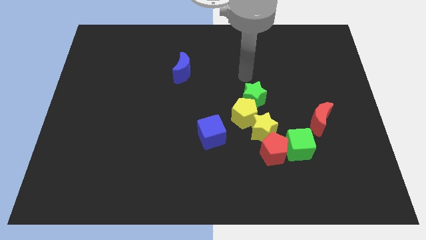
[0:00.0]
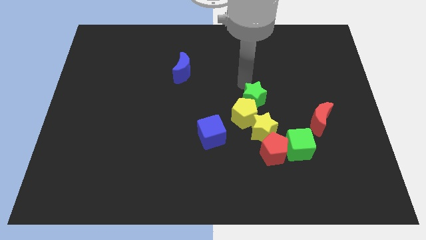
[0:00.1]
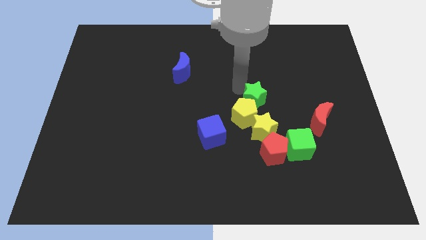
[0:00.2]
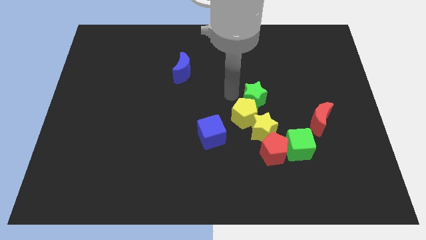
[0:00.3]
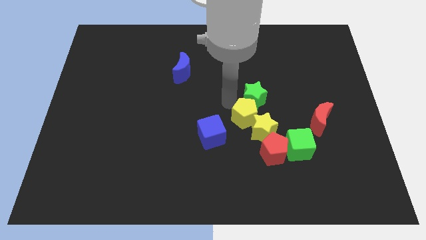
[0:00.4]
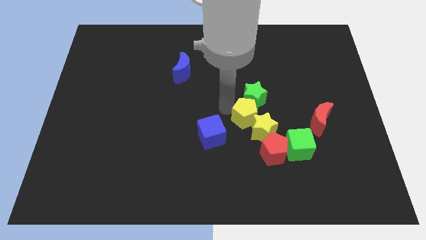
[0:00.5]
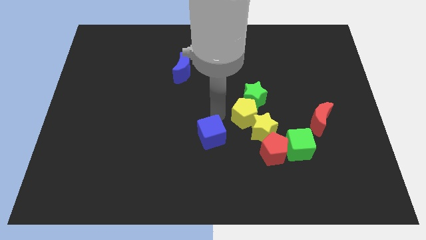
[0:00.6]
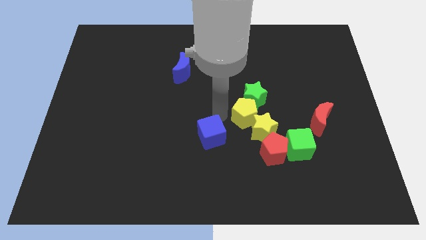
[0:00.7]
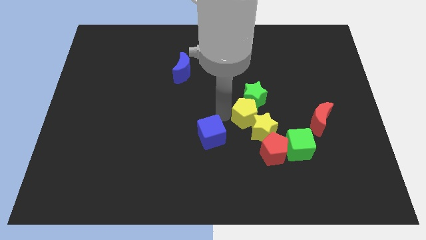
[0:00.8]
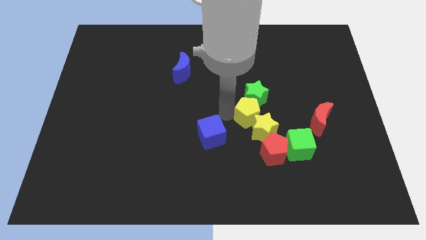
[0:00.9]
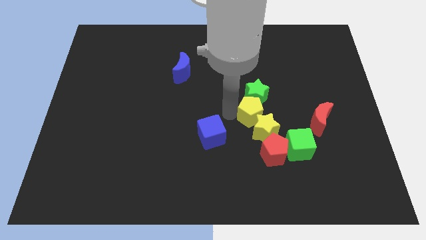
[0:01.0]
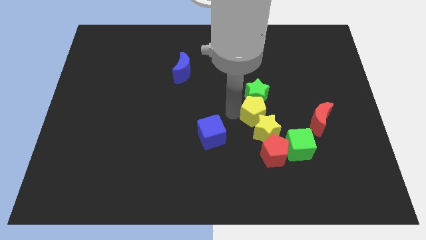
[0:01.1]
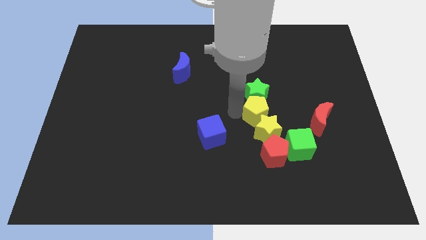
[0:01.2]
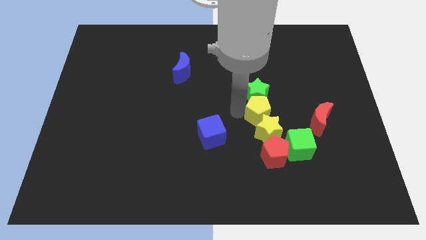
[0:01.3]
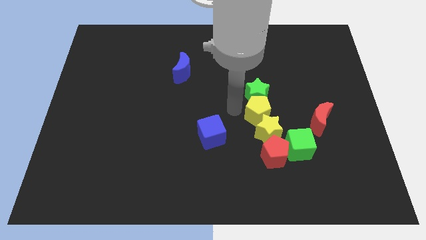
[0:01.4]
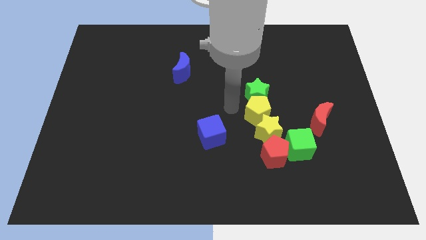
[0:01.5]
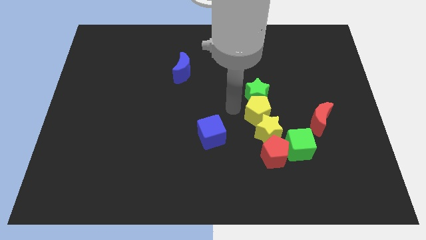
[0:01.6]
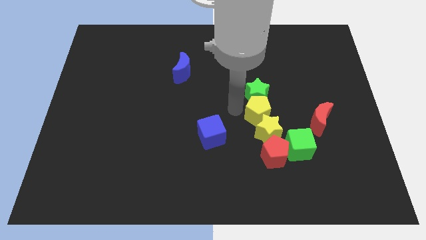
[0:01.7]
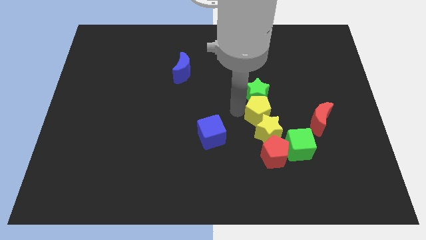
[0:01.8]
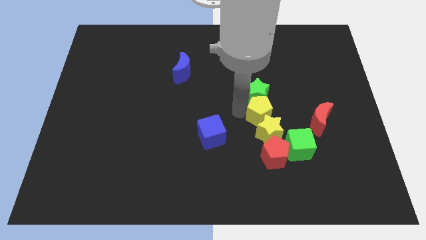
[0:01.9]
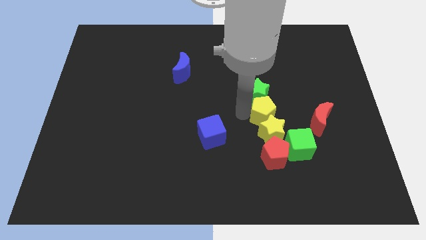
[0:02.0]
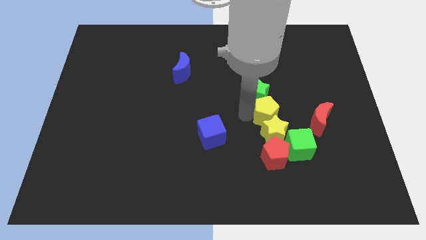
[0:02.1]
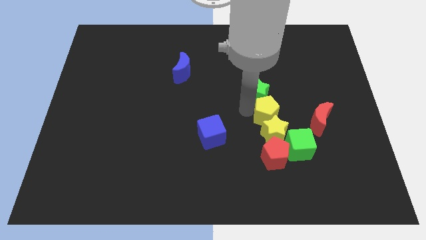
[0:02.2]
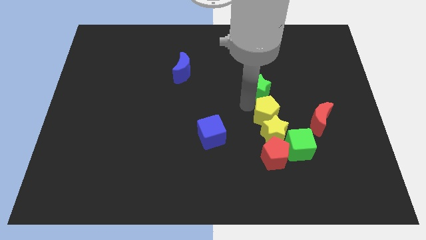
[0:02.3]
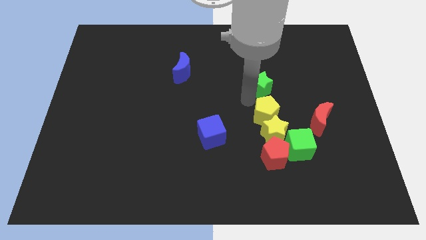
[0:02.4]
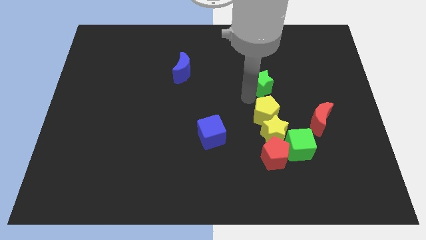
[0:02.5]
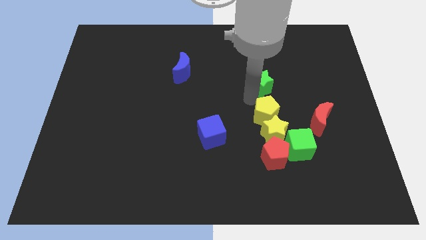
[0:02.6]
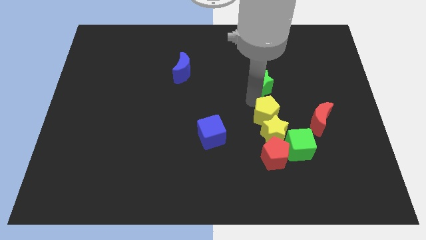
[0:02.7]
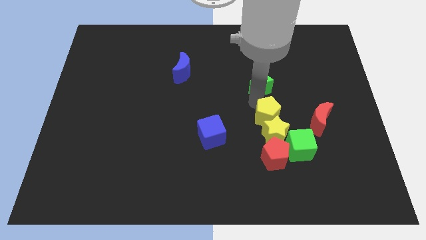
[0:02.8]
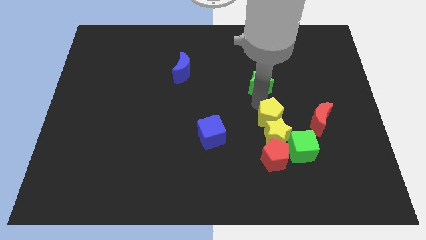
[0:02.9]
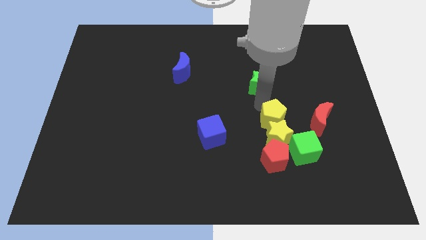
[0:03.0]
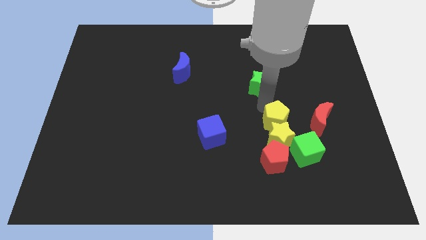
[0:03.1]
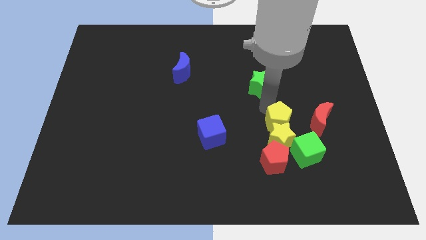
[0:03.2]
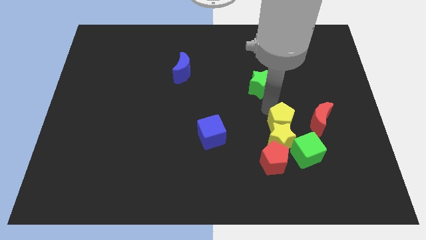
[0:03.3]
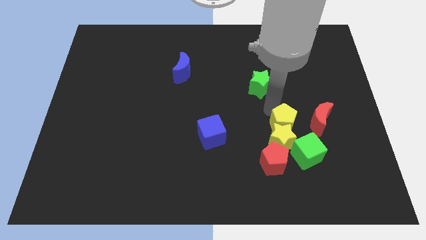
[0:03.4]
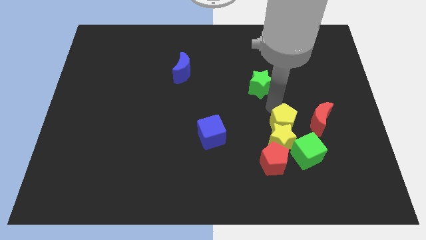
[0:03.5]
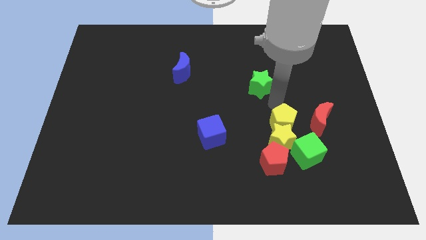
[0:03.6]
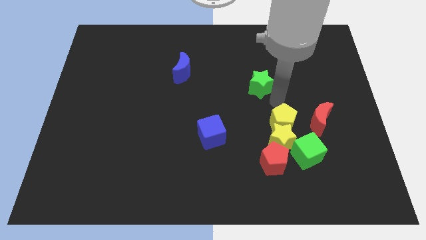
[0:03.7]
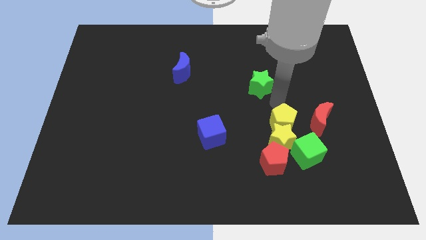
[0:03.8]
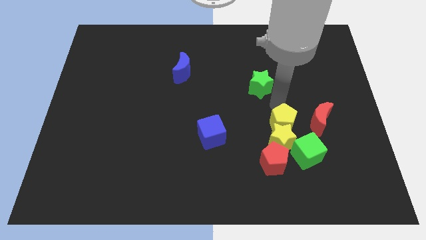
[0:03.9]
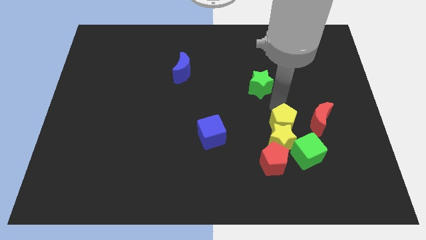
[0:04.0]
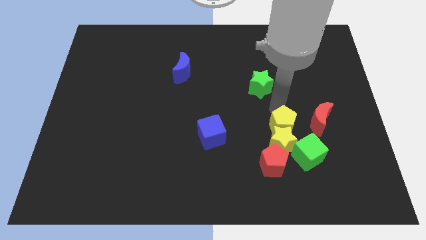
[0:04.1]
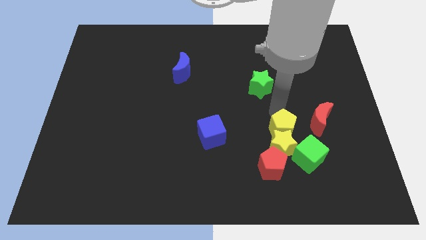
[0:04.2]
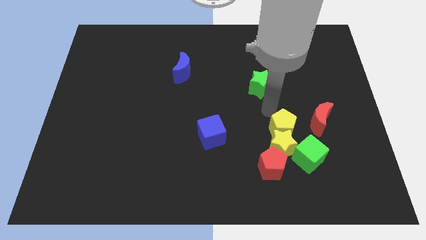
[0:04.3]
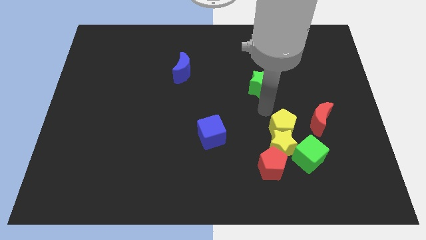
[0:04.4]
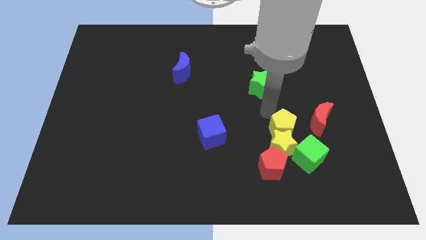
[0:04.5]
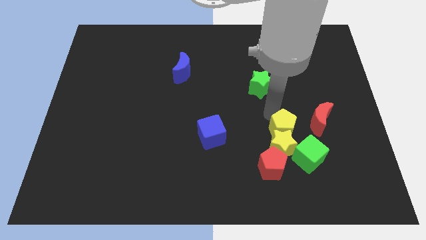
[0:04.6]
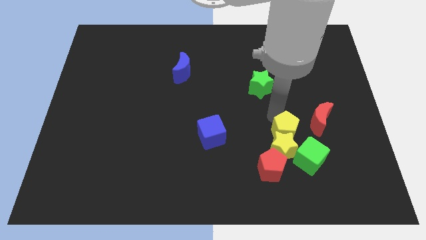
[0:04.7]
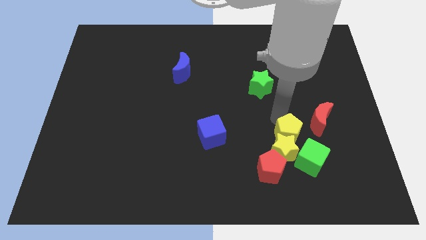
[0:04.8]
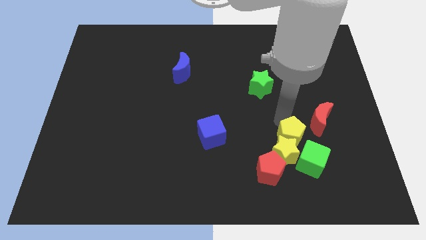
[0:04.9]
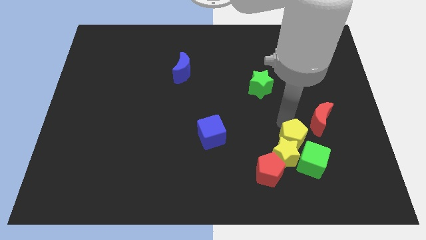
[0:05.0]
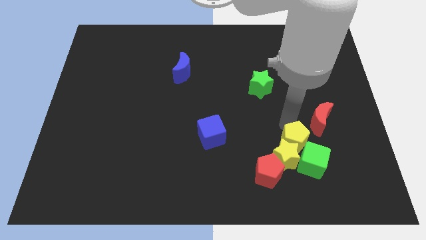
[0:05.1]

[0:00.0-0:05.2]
slide the yellow pentagon next to the green cube

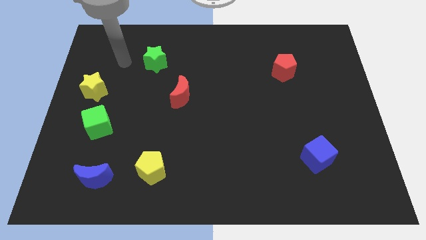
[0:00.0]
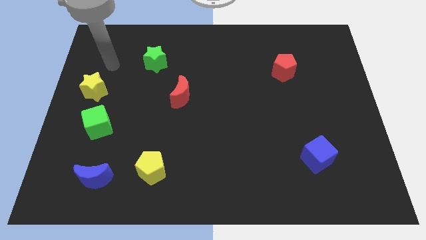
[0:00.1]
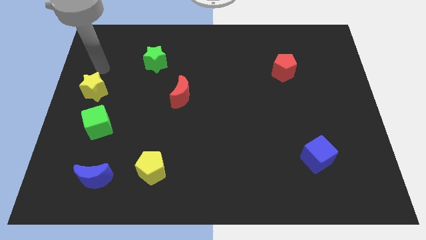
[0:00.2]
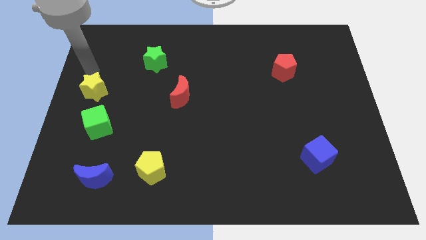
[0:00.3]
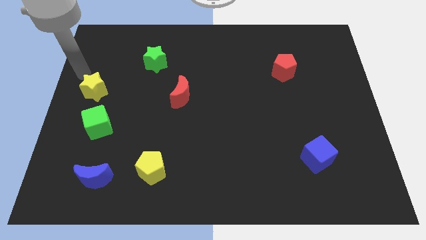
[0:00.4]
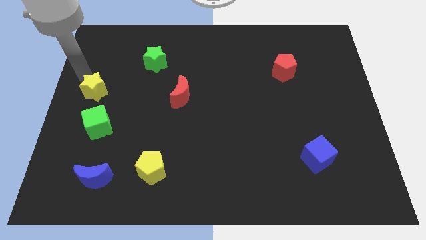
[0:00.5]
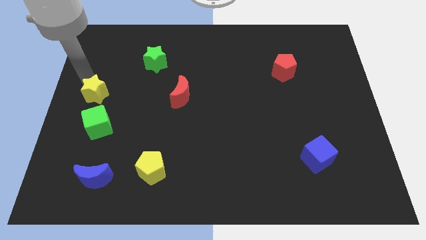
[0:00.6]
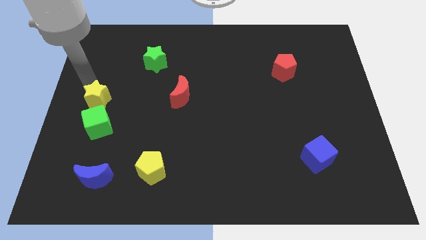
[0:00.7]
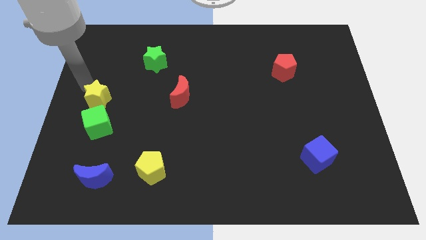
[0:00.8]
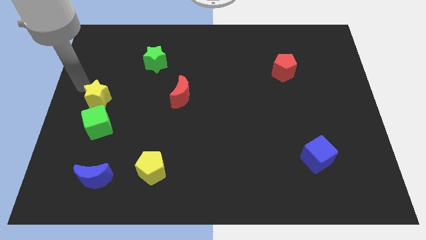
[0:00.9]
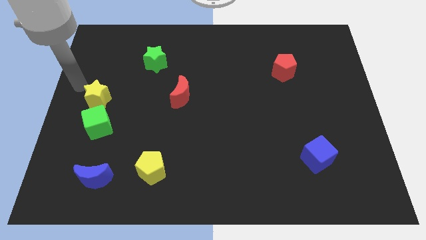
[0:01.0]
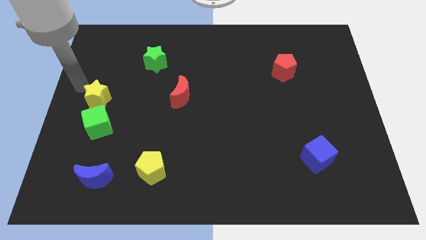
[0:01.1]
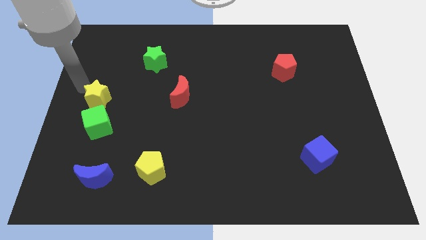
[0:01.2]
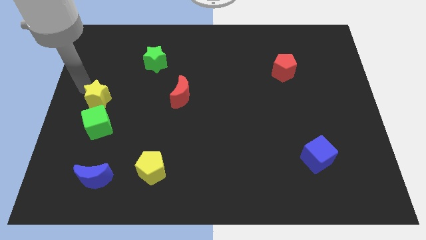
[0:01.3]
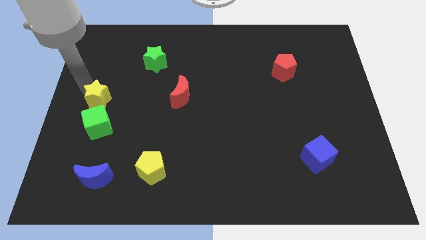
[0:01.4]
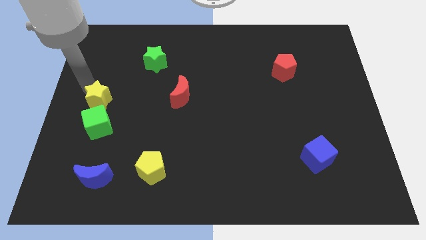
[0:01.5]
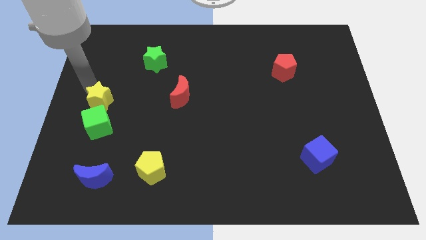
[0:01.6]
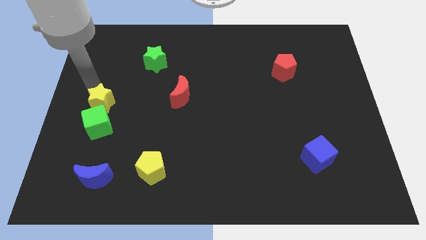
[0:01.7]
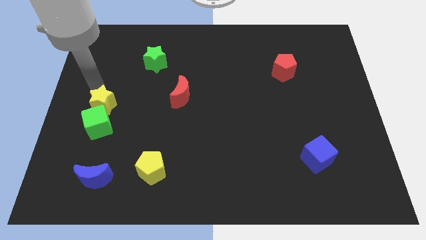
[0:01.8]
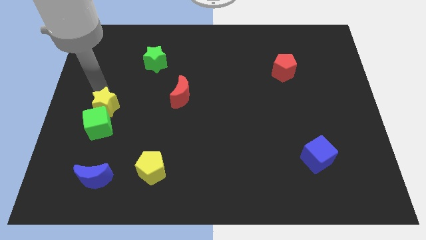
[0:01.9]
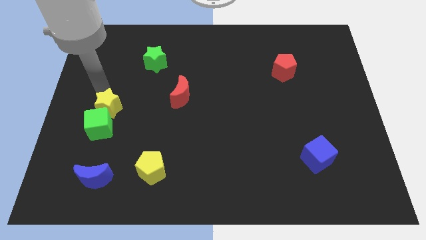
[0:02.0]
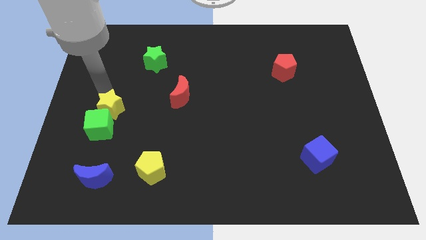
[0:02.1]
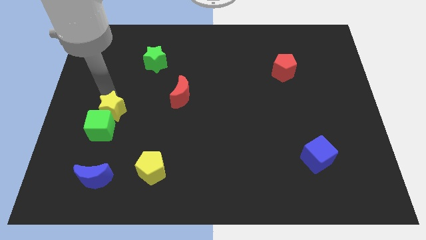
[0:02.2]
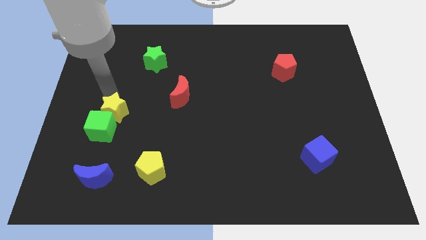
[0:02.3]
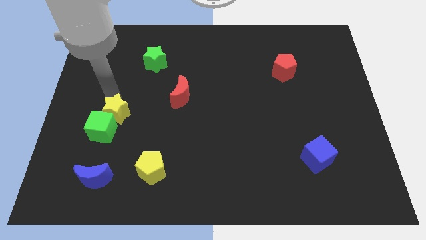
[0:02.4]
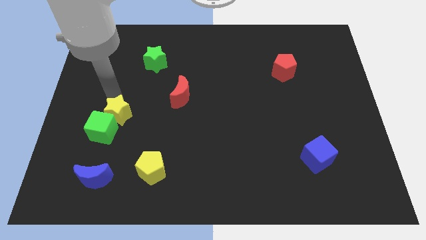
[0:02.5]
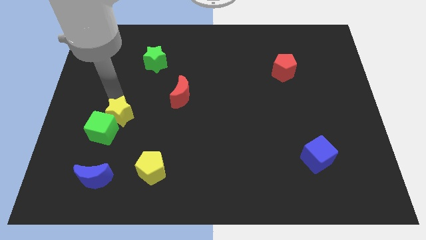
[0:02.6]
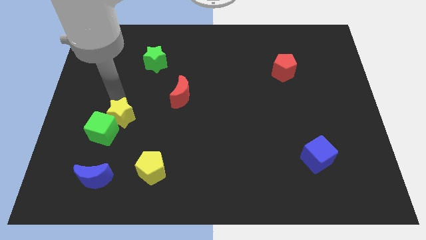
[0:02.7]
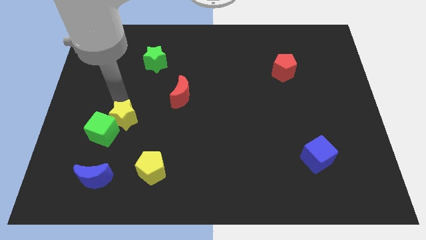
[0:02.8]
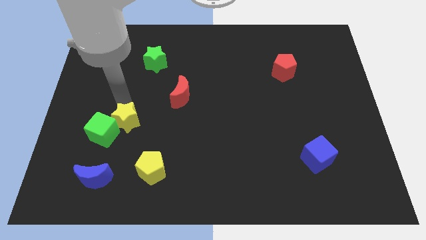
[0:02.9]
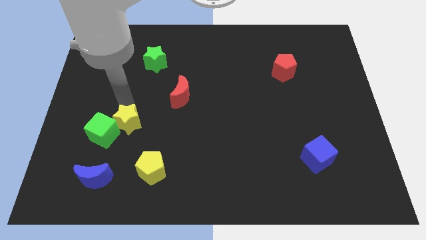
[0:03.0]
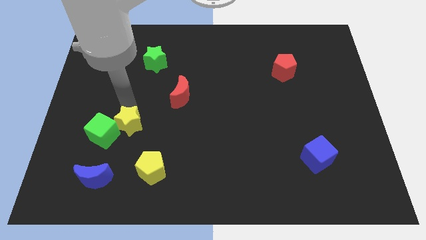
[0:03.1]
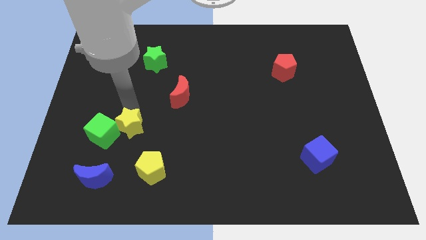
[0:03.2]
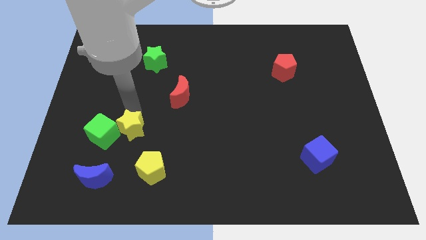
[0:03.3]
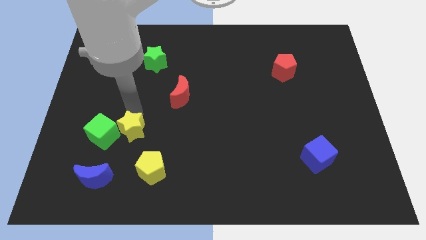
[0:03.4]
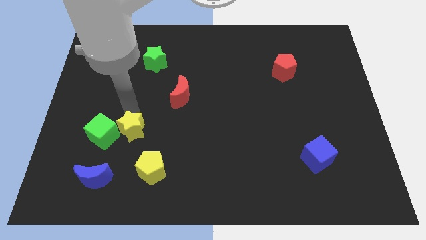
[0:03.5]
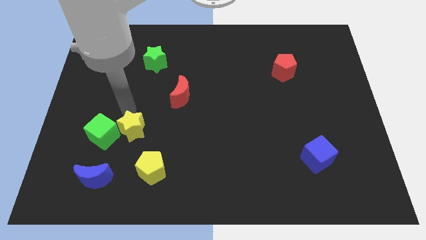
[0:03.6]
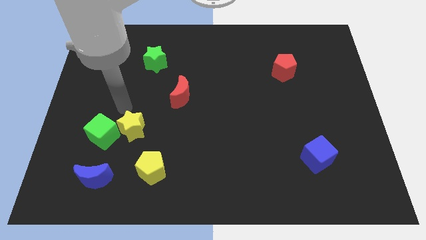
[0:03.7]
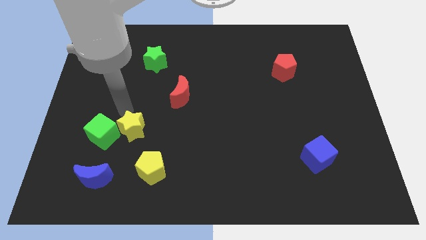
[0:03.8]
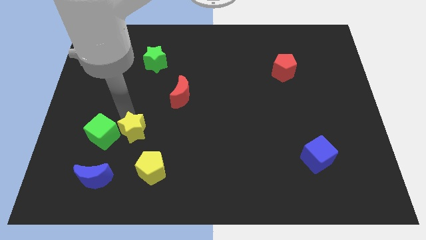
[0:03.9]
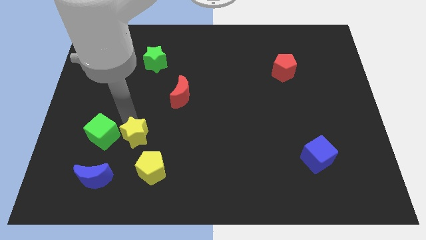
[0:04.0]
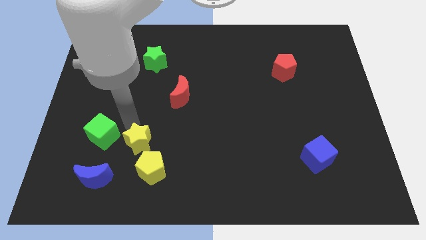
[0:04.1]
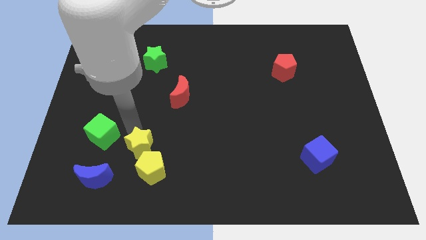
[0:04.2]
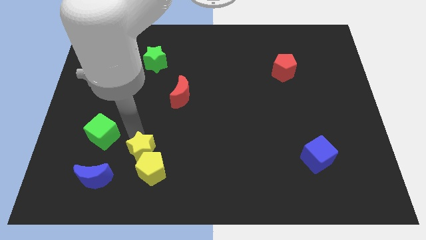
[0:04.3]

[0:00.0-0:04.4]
push the yellow star close to the yellow pentagon
